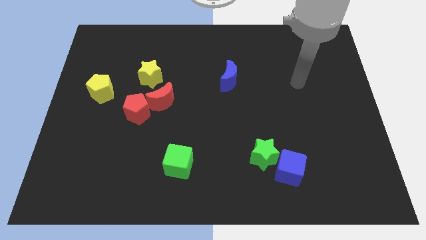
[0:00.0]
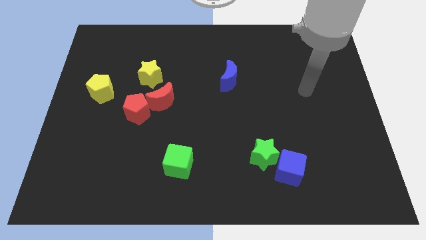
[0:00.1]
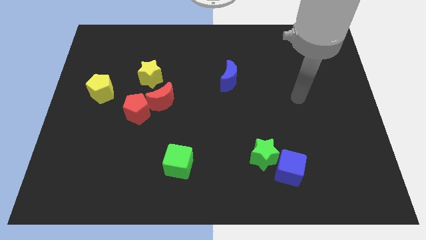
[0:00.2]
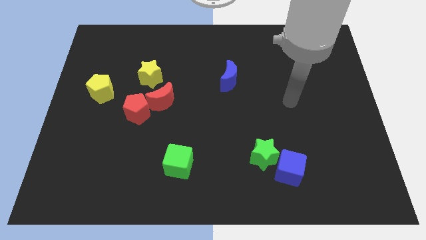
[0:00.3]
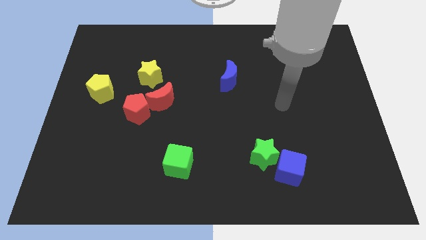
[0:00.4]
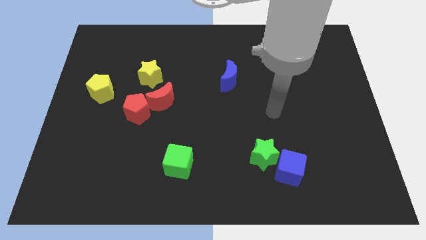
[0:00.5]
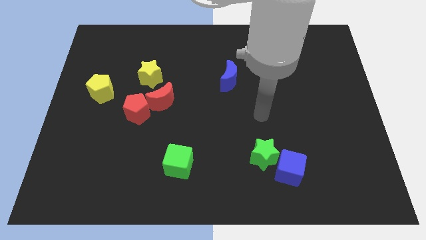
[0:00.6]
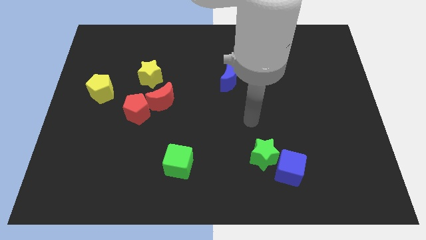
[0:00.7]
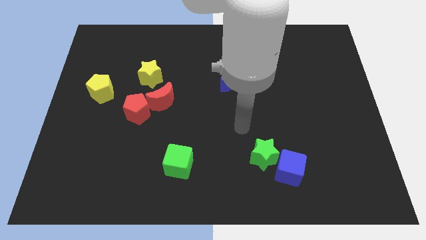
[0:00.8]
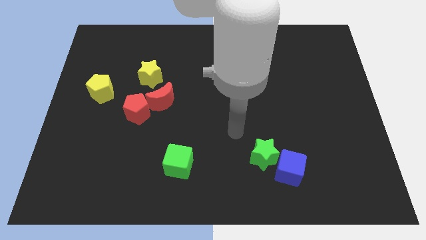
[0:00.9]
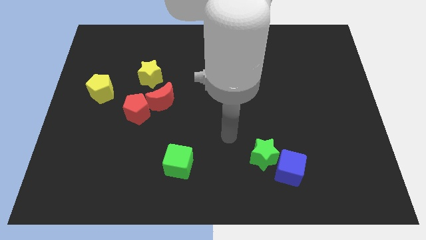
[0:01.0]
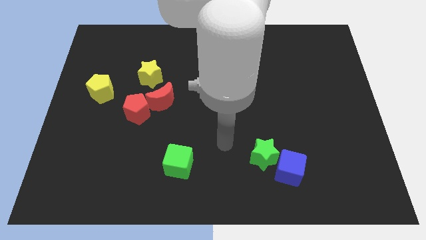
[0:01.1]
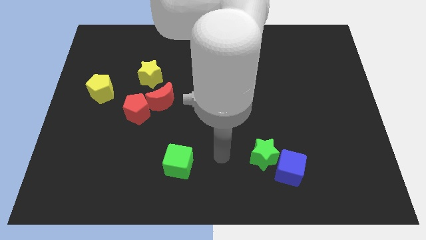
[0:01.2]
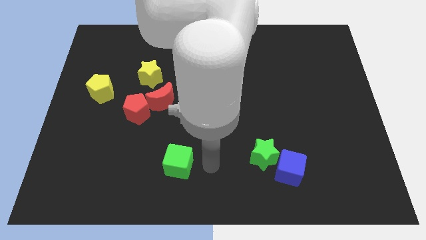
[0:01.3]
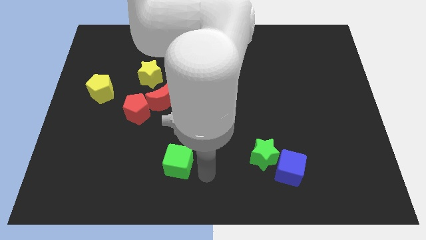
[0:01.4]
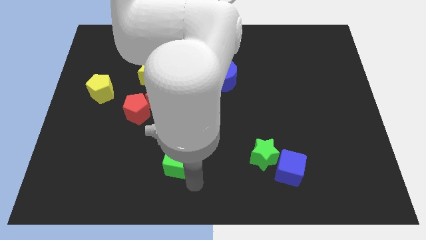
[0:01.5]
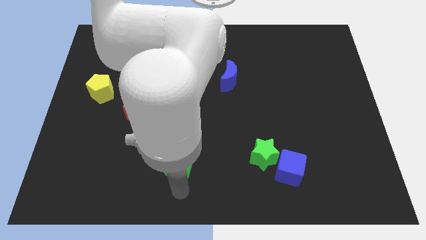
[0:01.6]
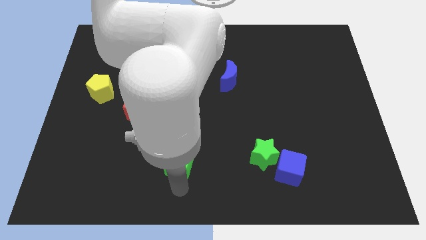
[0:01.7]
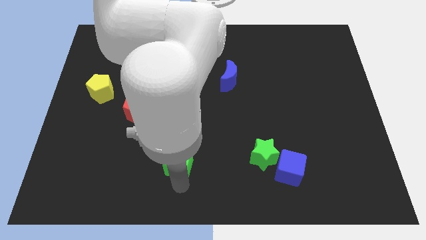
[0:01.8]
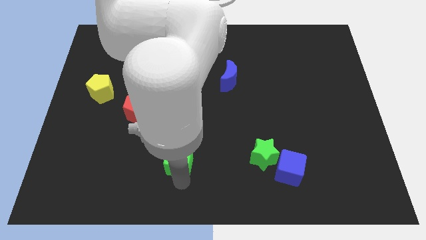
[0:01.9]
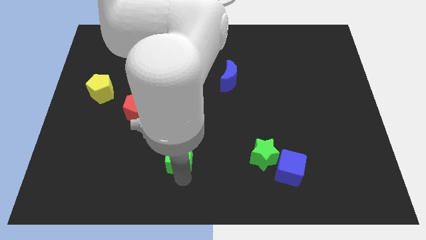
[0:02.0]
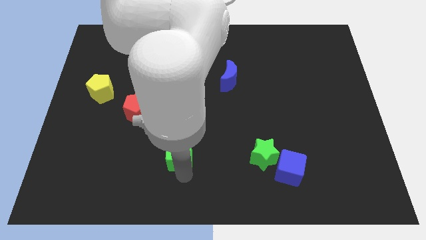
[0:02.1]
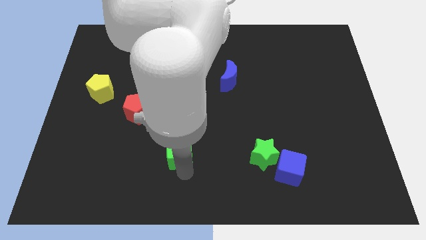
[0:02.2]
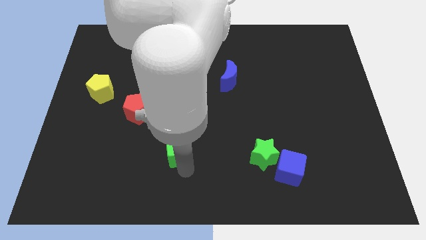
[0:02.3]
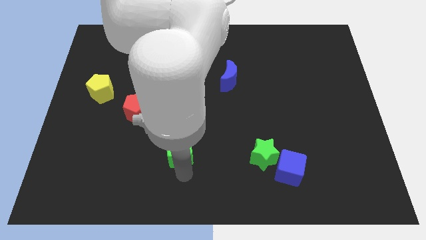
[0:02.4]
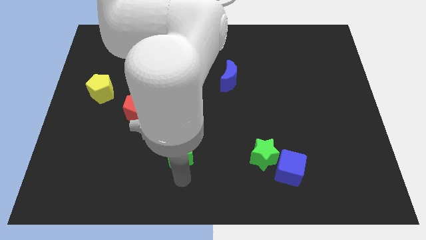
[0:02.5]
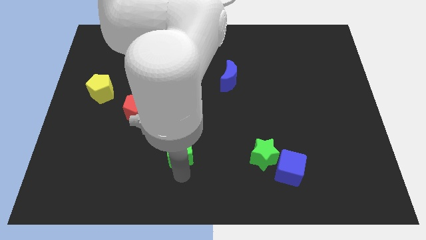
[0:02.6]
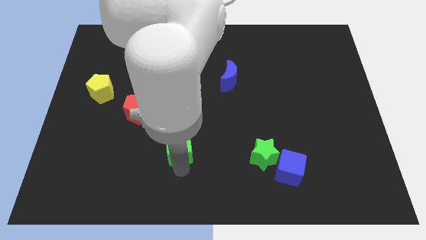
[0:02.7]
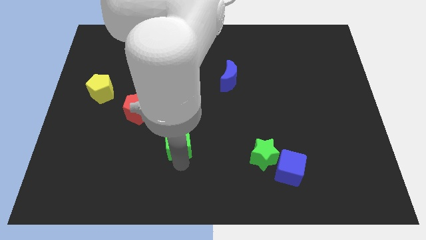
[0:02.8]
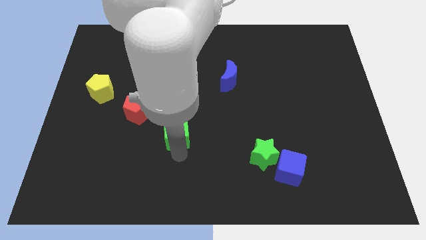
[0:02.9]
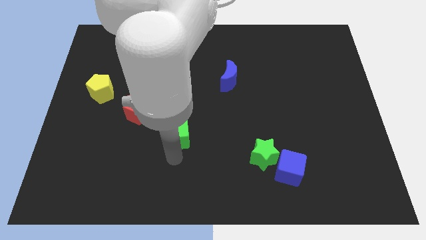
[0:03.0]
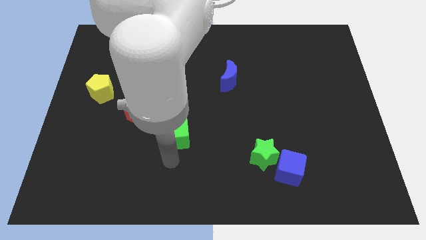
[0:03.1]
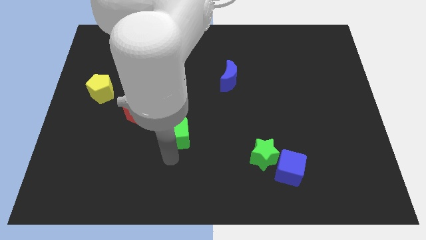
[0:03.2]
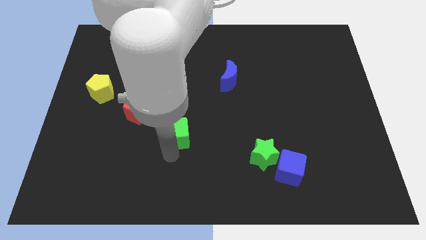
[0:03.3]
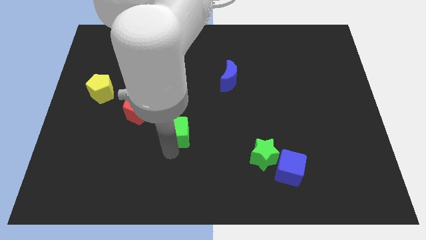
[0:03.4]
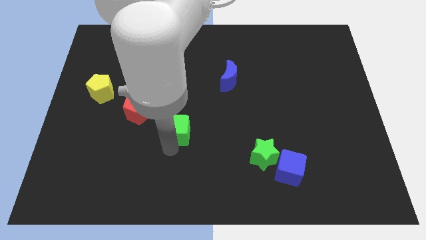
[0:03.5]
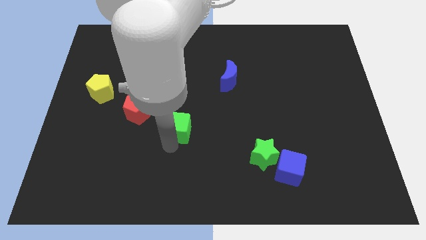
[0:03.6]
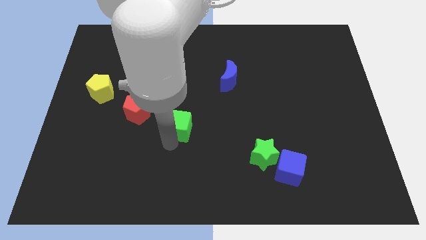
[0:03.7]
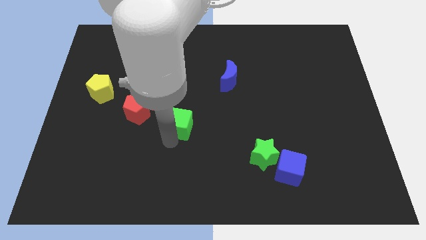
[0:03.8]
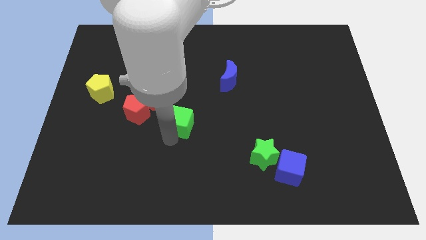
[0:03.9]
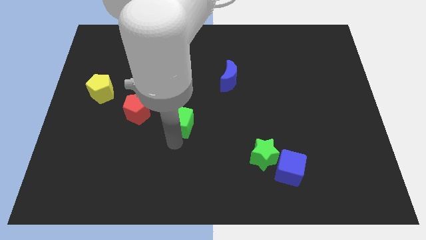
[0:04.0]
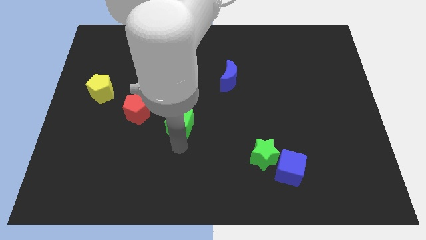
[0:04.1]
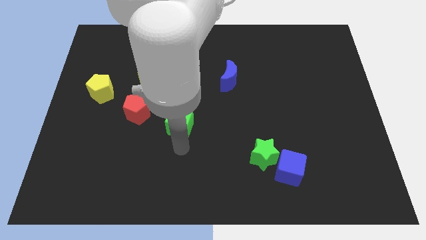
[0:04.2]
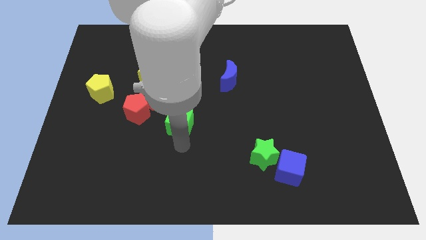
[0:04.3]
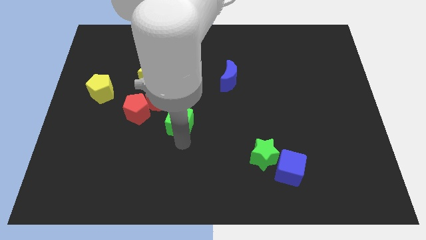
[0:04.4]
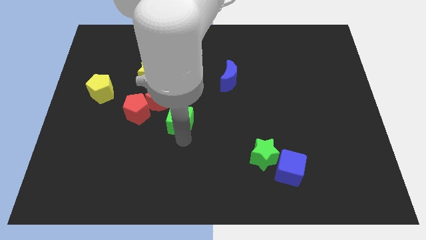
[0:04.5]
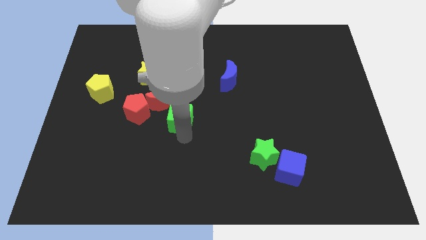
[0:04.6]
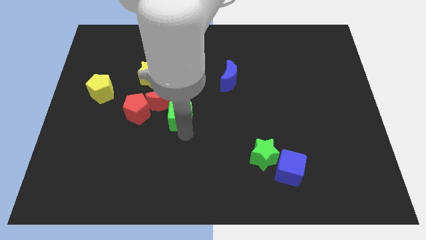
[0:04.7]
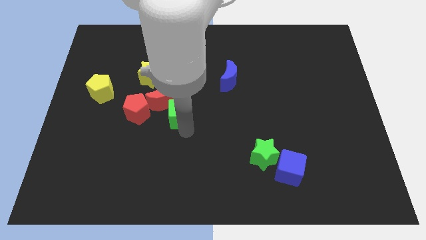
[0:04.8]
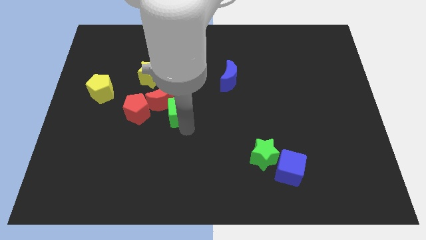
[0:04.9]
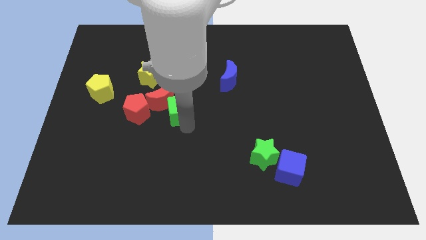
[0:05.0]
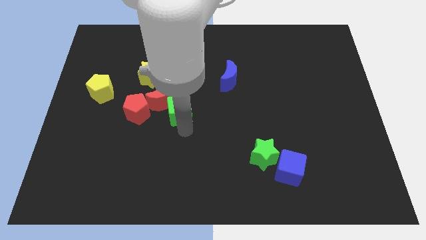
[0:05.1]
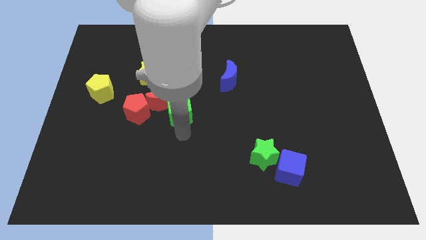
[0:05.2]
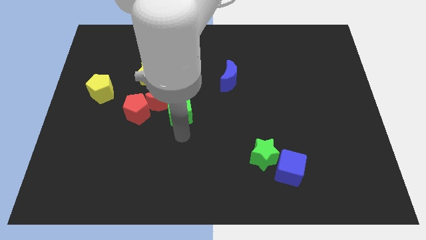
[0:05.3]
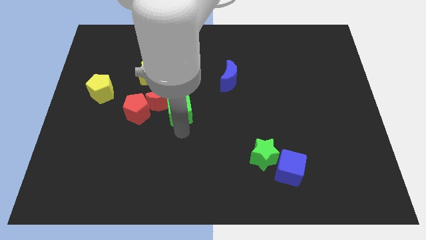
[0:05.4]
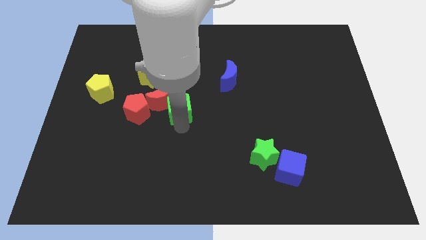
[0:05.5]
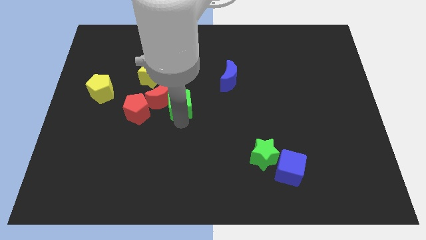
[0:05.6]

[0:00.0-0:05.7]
put the green cube to the bottom right side of the yellow star

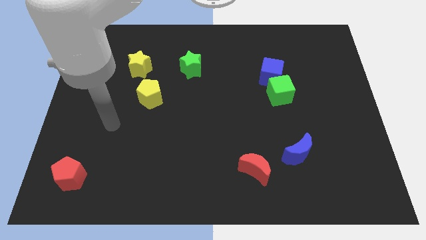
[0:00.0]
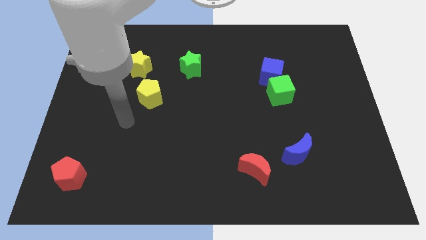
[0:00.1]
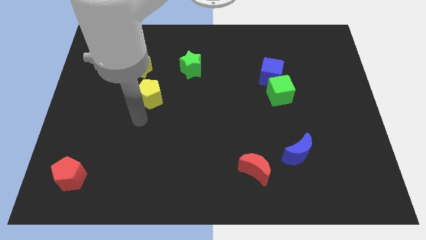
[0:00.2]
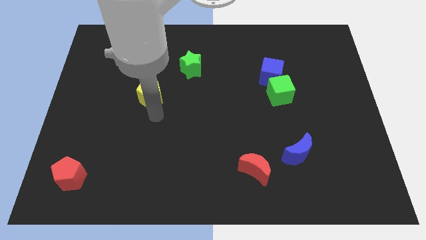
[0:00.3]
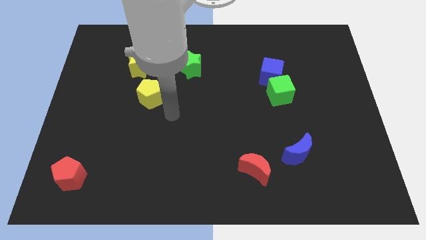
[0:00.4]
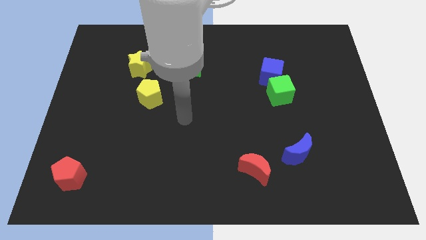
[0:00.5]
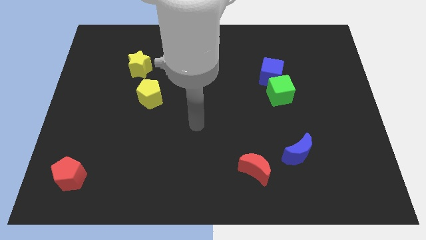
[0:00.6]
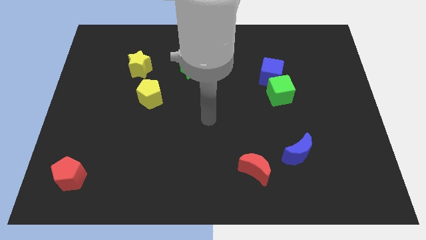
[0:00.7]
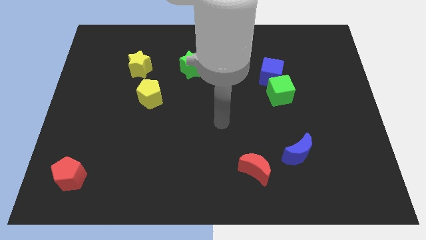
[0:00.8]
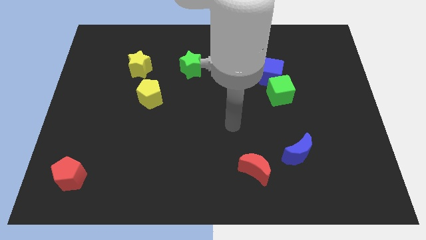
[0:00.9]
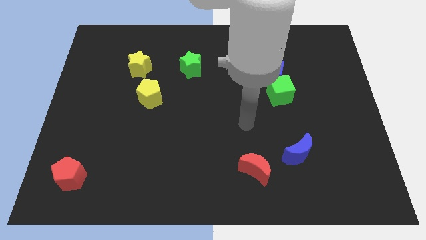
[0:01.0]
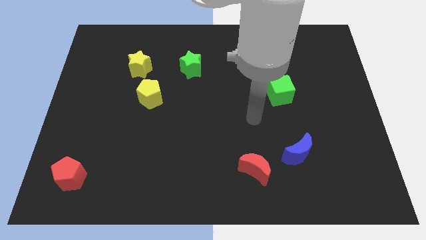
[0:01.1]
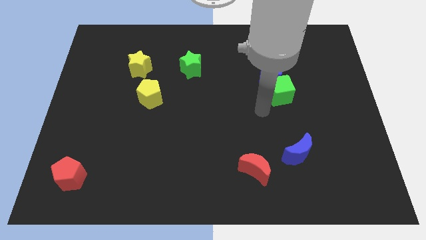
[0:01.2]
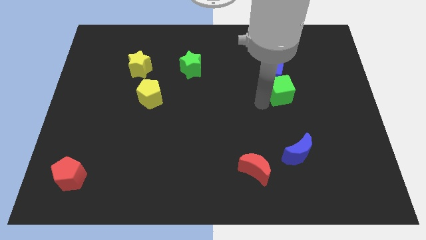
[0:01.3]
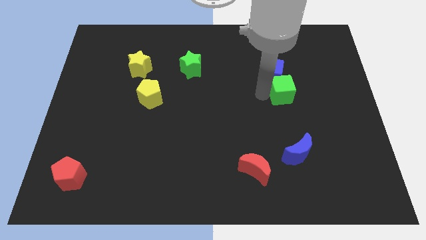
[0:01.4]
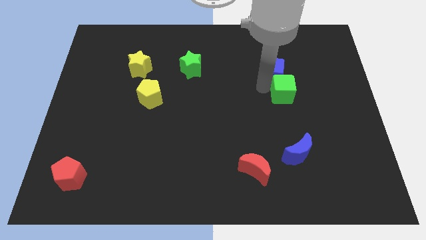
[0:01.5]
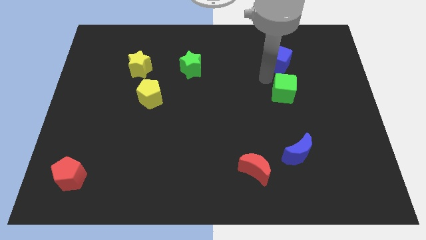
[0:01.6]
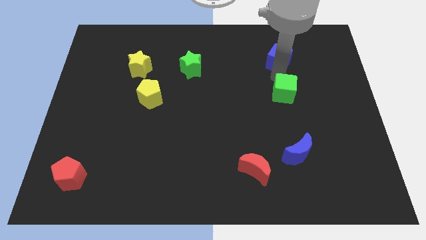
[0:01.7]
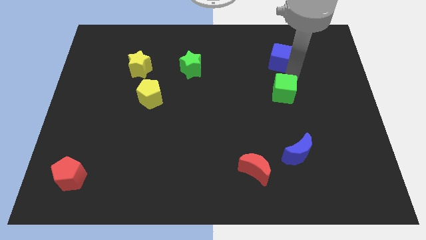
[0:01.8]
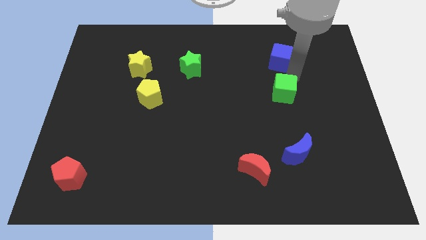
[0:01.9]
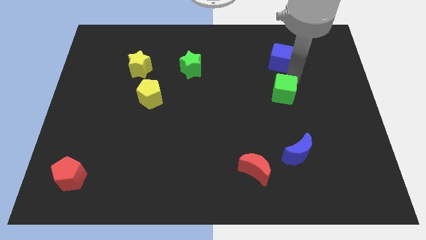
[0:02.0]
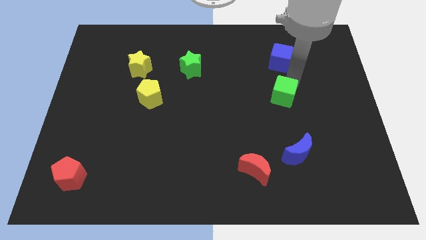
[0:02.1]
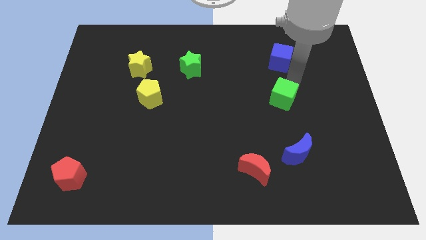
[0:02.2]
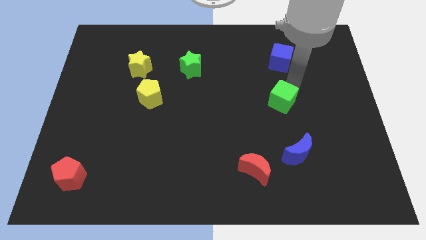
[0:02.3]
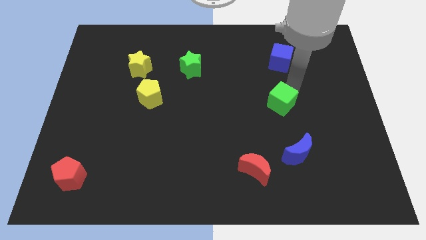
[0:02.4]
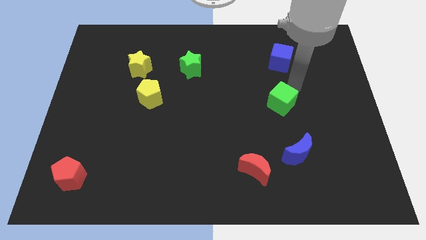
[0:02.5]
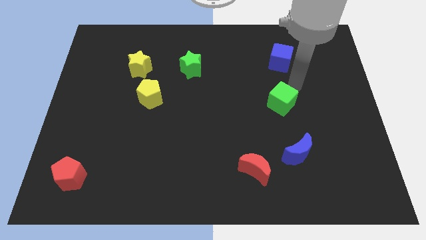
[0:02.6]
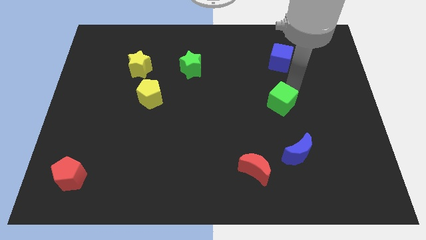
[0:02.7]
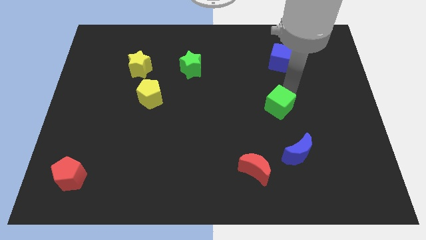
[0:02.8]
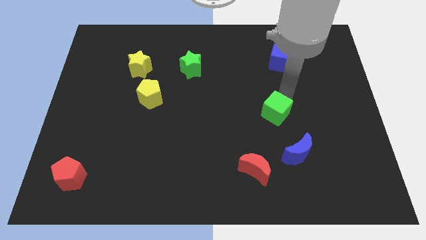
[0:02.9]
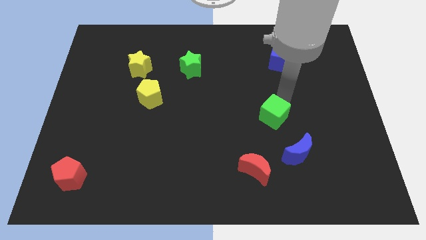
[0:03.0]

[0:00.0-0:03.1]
put the green cube diagonally up and to the left of the blue moon
